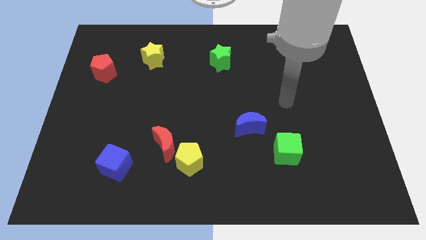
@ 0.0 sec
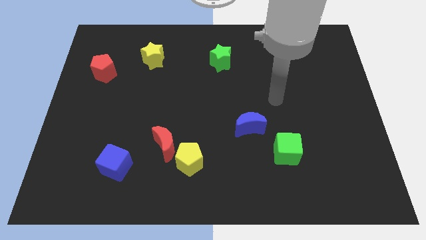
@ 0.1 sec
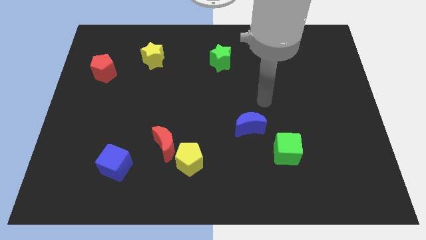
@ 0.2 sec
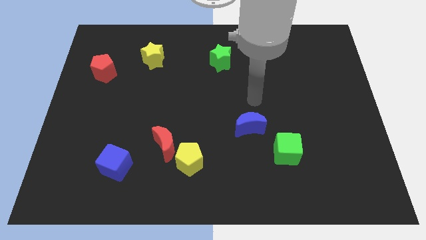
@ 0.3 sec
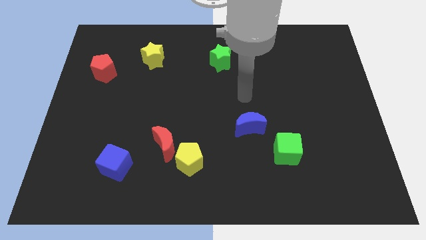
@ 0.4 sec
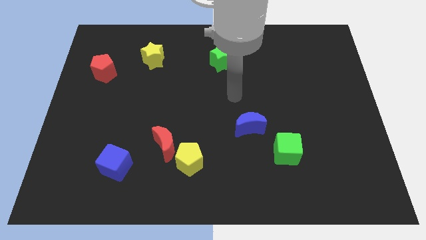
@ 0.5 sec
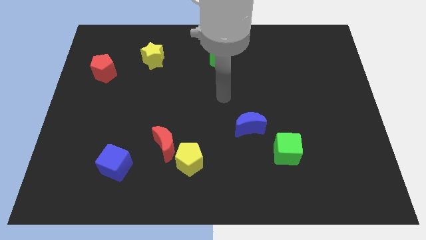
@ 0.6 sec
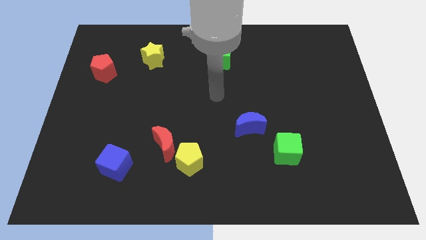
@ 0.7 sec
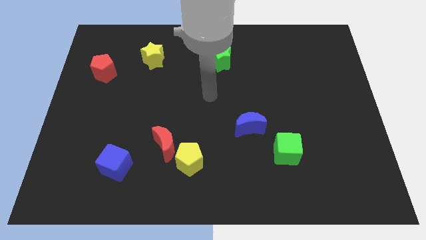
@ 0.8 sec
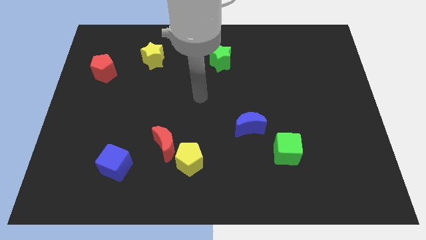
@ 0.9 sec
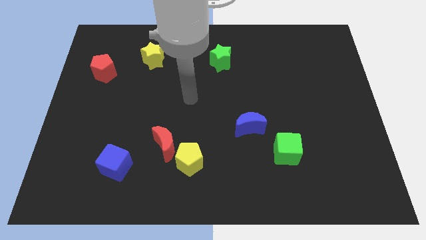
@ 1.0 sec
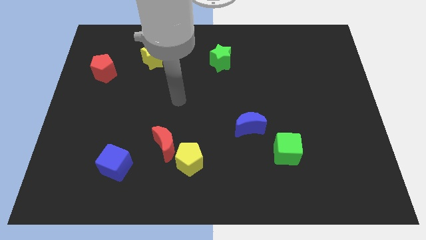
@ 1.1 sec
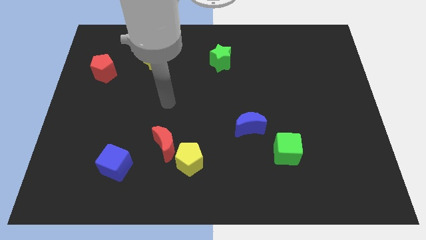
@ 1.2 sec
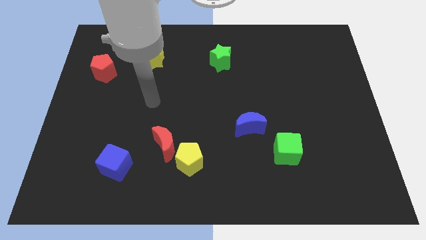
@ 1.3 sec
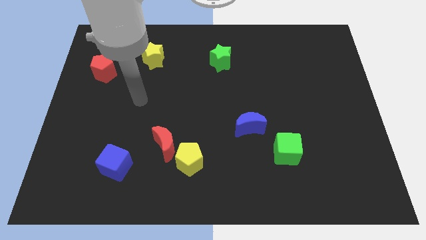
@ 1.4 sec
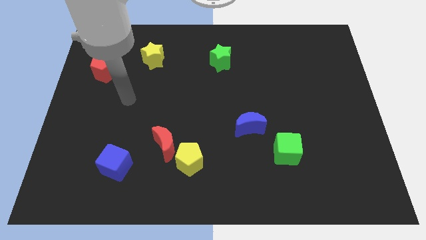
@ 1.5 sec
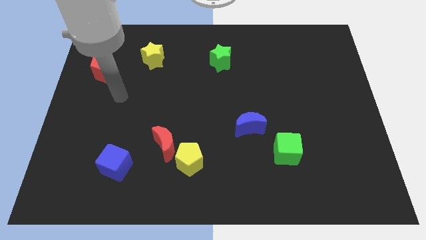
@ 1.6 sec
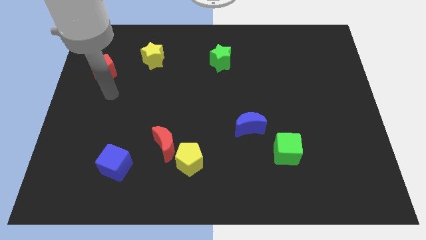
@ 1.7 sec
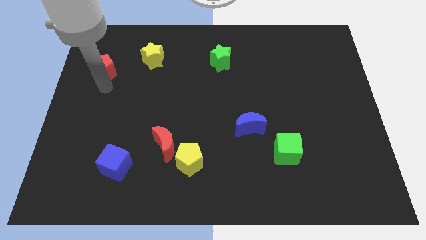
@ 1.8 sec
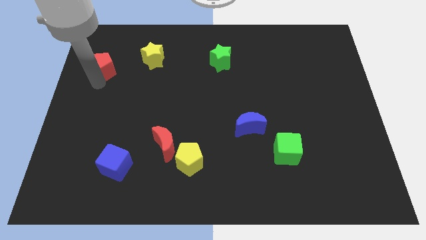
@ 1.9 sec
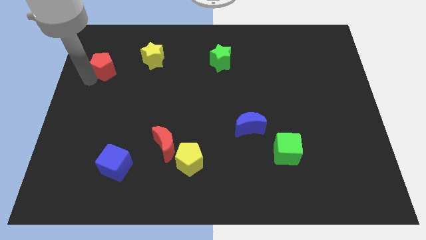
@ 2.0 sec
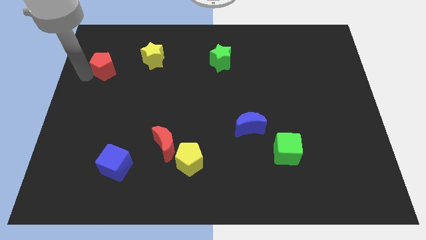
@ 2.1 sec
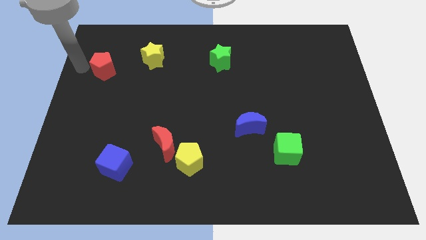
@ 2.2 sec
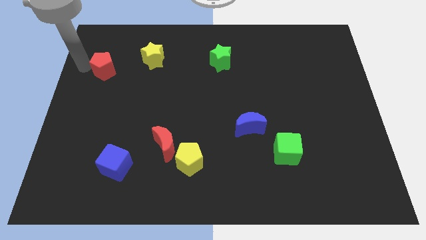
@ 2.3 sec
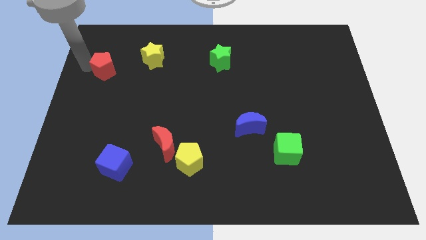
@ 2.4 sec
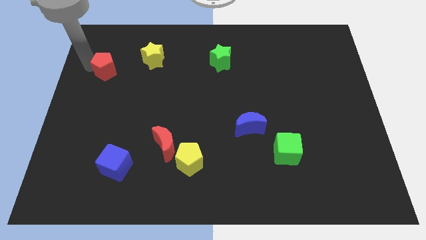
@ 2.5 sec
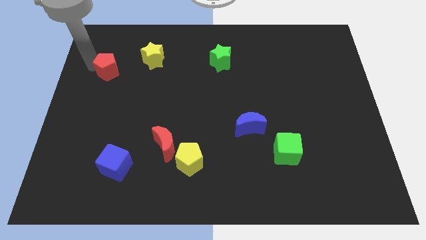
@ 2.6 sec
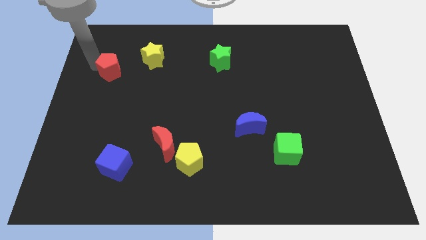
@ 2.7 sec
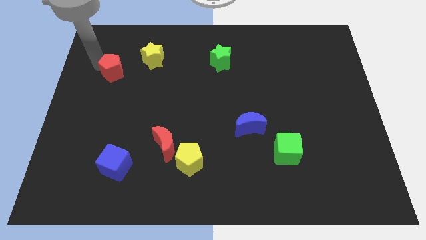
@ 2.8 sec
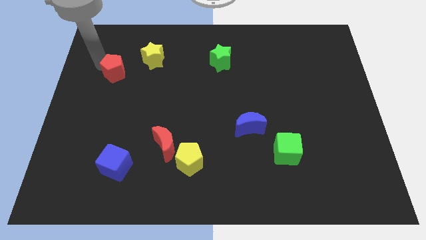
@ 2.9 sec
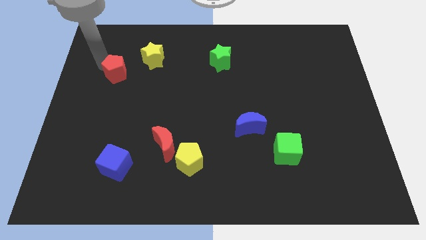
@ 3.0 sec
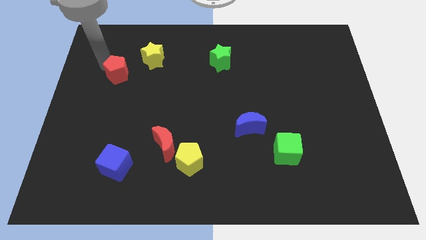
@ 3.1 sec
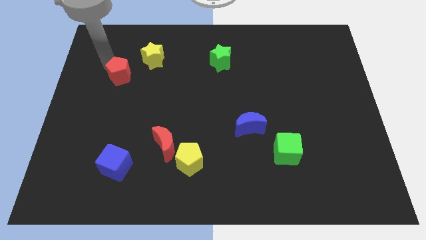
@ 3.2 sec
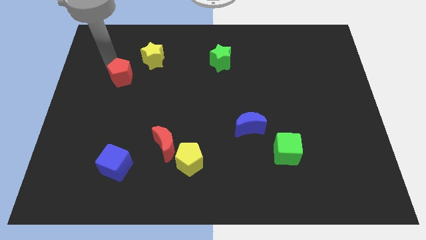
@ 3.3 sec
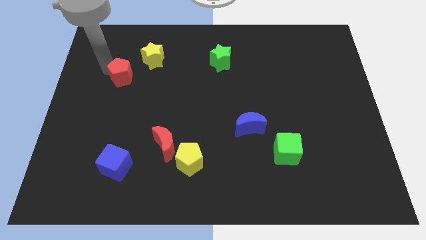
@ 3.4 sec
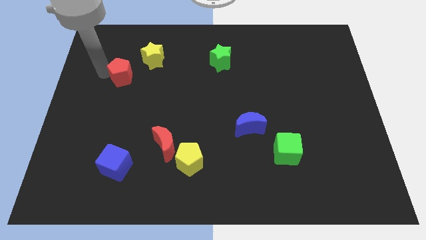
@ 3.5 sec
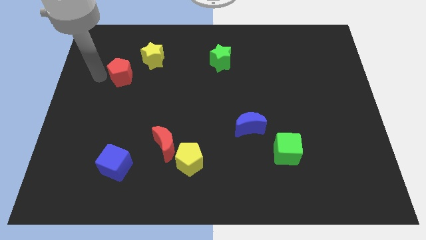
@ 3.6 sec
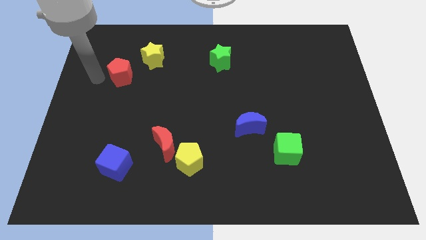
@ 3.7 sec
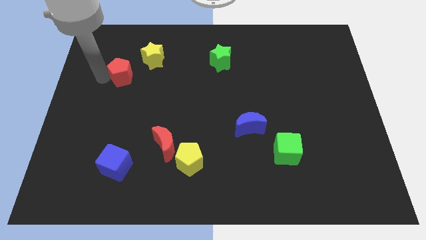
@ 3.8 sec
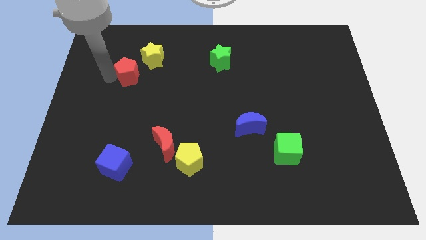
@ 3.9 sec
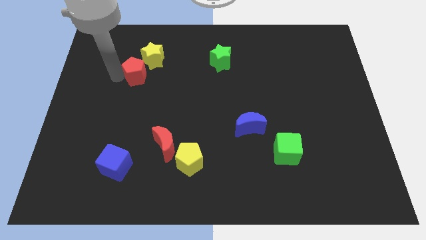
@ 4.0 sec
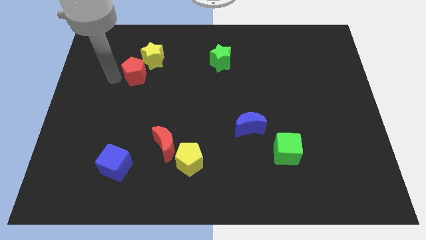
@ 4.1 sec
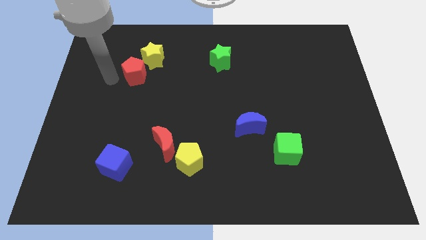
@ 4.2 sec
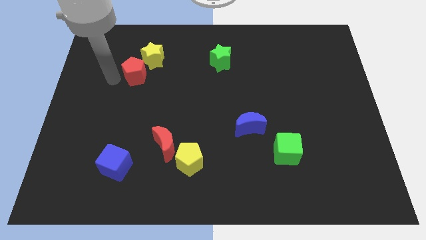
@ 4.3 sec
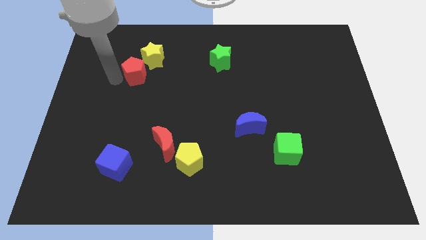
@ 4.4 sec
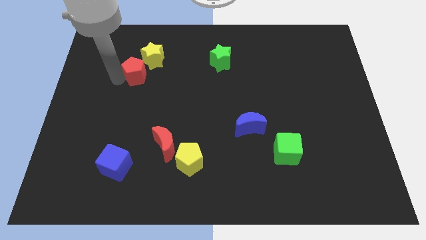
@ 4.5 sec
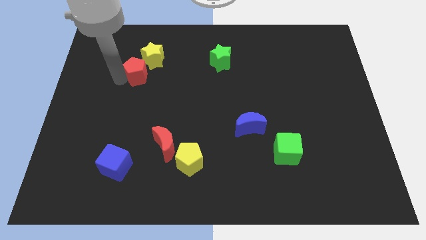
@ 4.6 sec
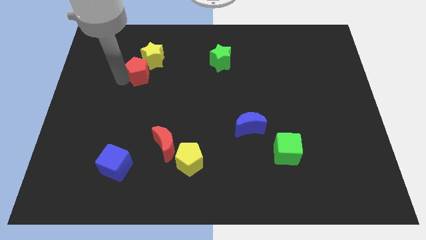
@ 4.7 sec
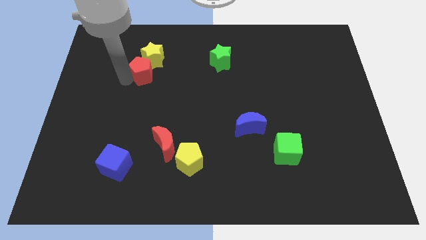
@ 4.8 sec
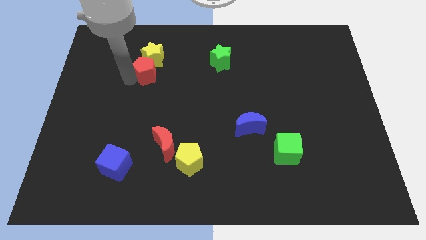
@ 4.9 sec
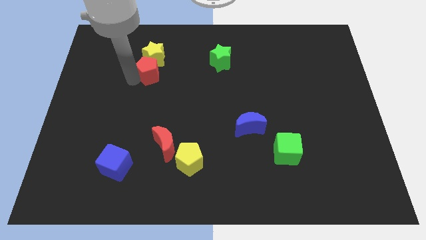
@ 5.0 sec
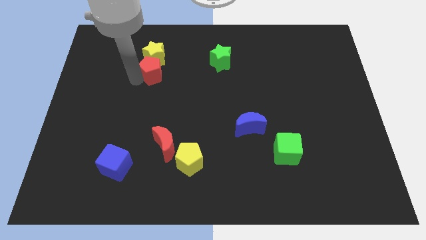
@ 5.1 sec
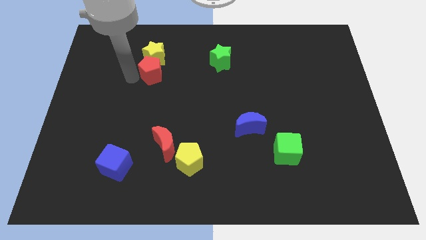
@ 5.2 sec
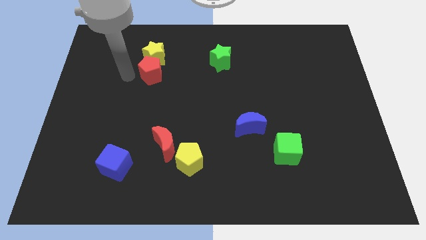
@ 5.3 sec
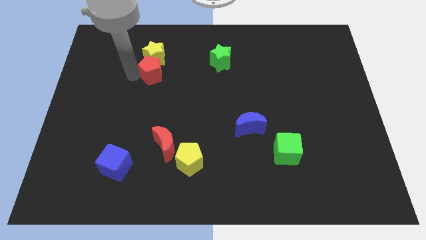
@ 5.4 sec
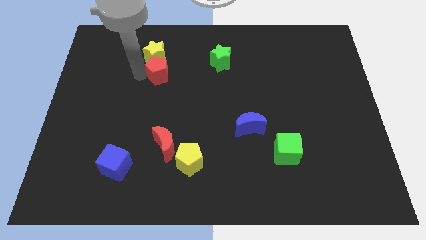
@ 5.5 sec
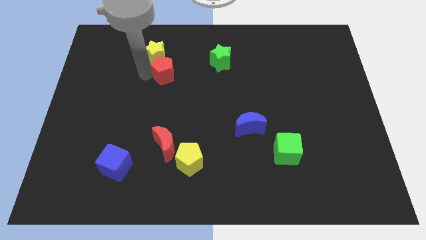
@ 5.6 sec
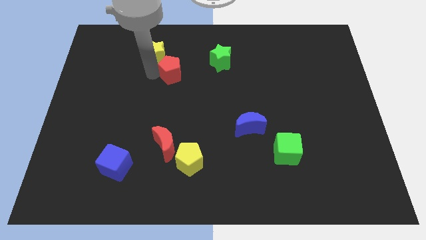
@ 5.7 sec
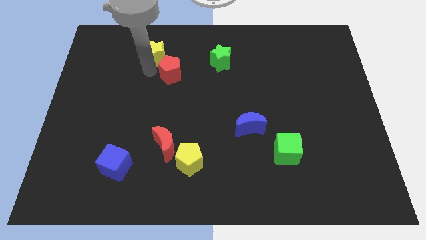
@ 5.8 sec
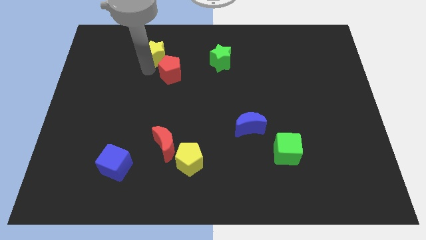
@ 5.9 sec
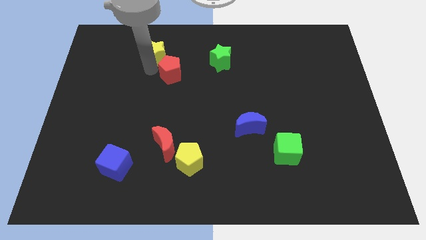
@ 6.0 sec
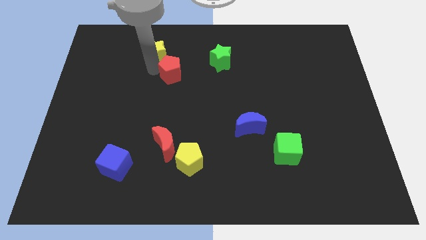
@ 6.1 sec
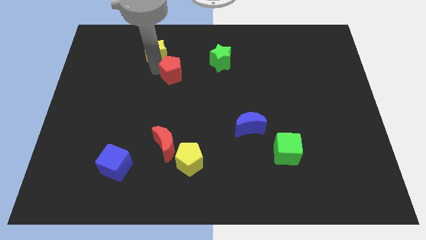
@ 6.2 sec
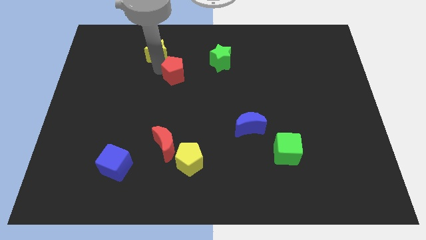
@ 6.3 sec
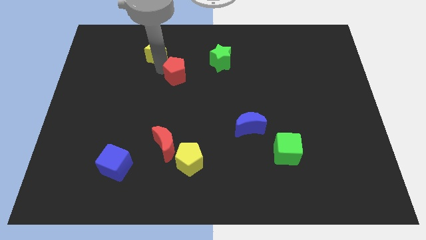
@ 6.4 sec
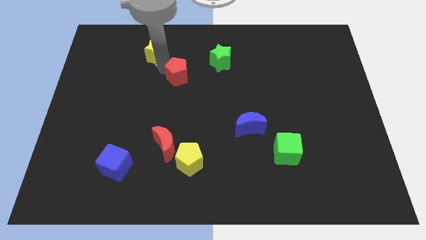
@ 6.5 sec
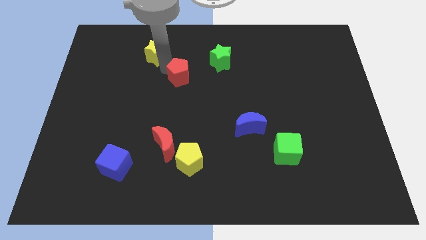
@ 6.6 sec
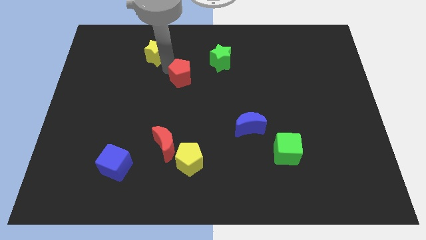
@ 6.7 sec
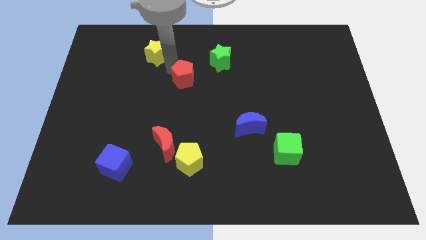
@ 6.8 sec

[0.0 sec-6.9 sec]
push the red pentagon right

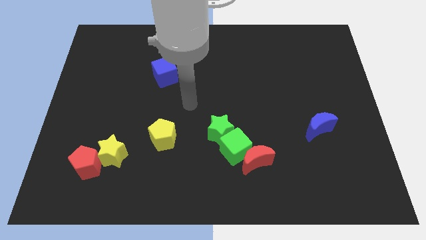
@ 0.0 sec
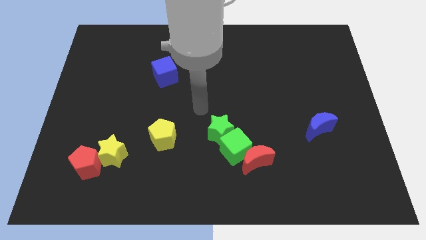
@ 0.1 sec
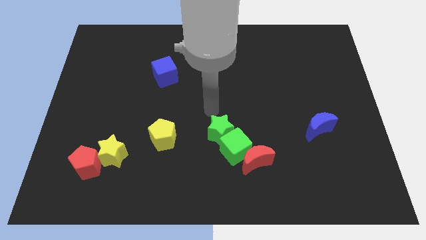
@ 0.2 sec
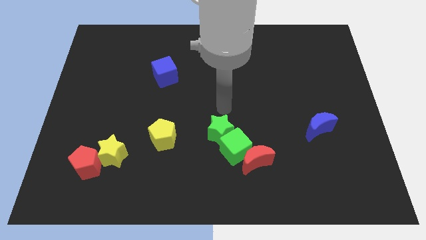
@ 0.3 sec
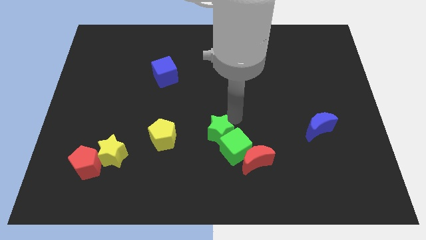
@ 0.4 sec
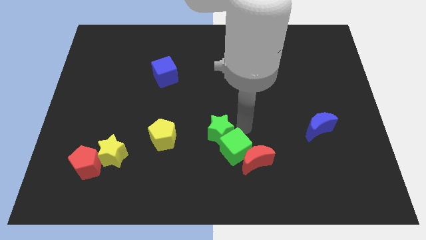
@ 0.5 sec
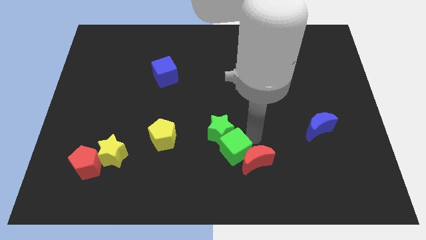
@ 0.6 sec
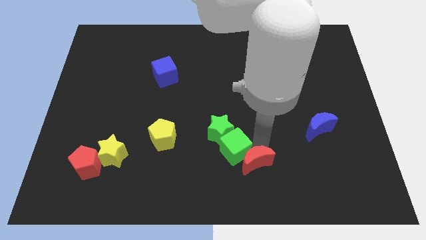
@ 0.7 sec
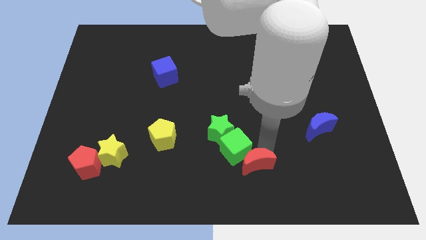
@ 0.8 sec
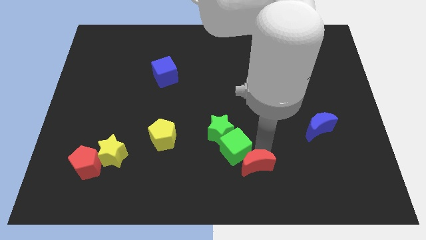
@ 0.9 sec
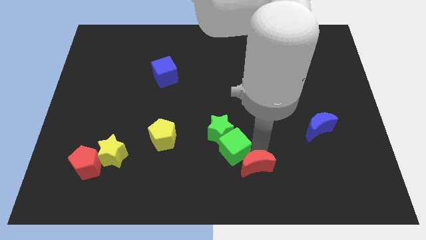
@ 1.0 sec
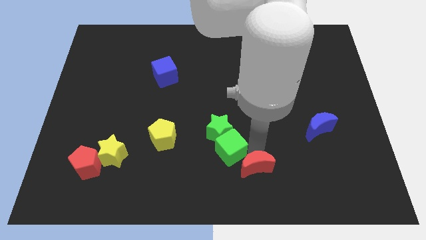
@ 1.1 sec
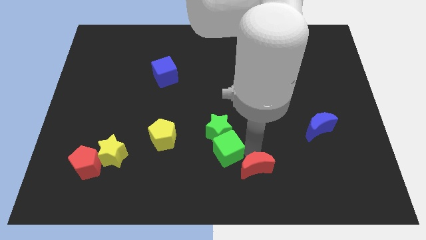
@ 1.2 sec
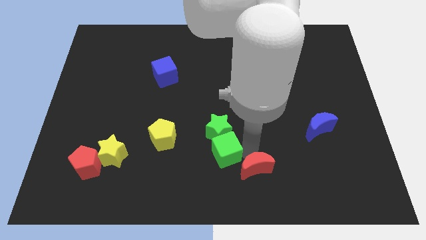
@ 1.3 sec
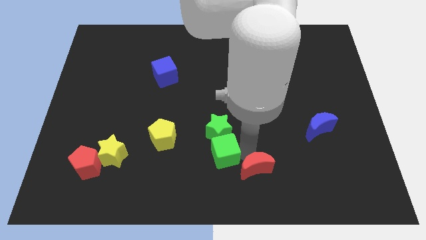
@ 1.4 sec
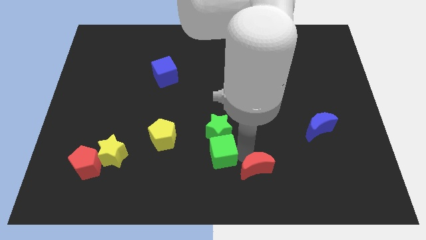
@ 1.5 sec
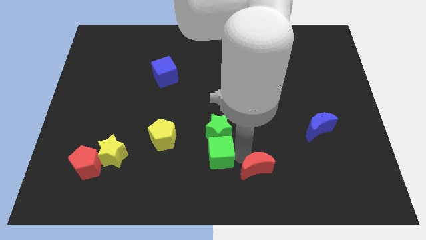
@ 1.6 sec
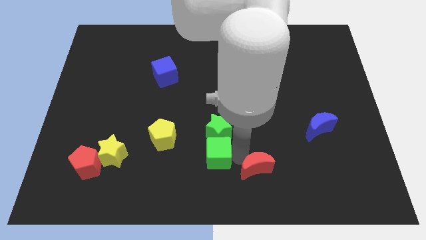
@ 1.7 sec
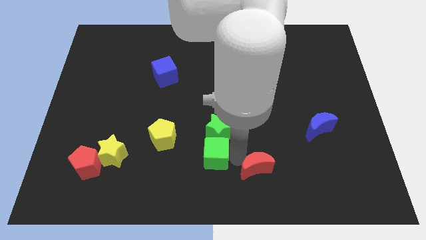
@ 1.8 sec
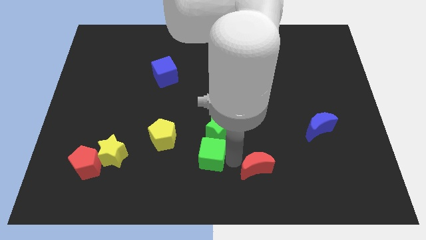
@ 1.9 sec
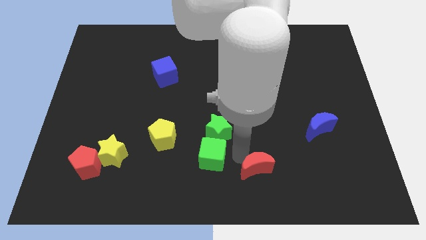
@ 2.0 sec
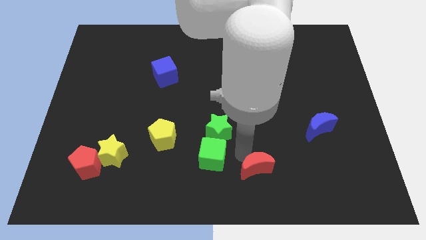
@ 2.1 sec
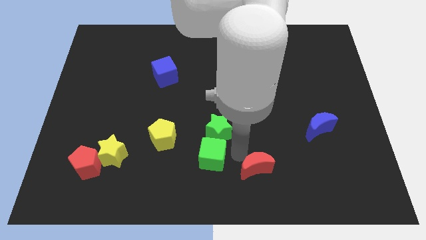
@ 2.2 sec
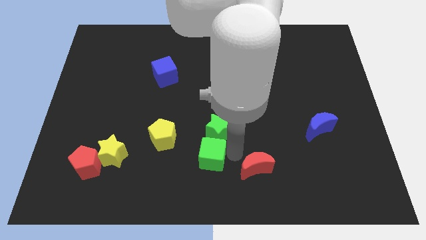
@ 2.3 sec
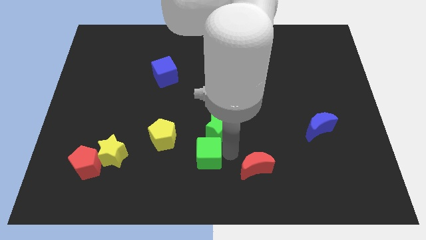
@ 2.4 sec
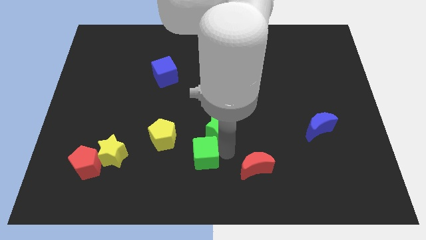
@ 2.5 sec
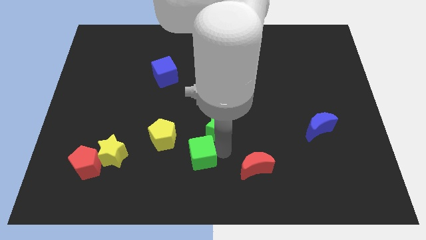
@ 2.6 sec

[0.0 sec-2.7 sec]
slightly slide the green cube to the left
